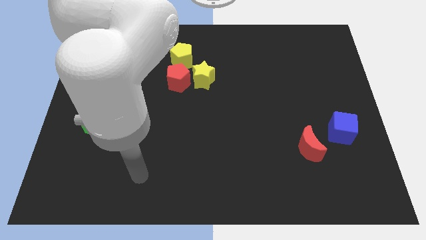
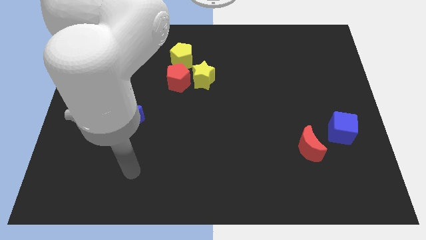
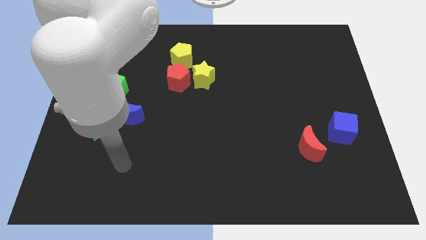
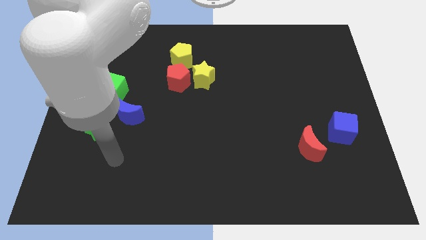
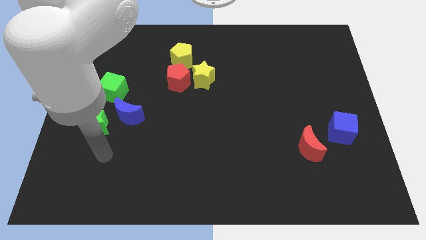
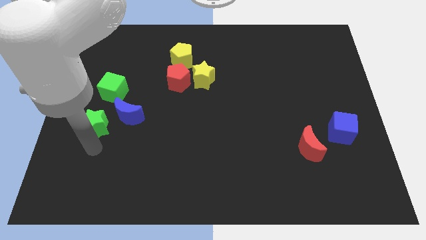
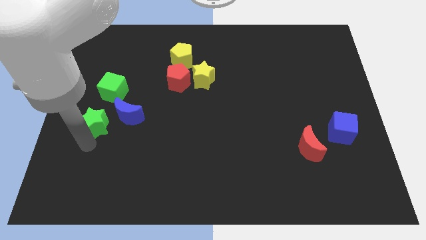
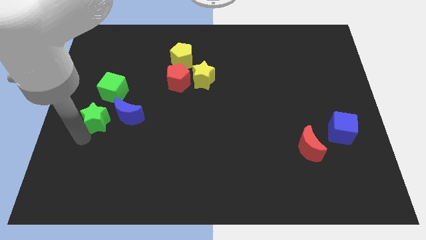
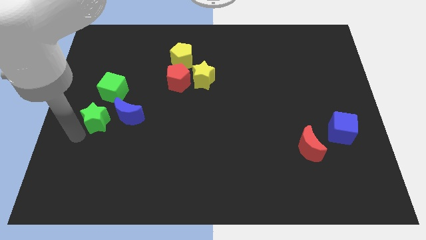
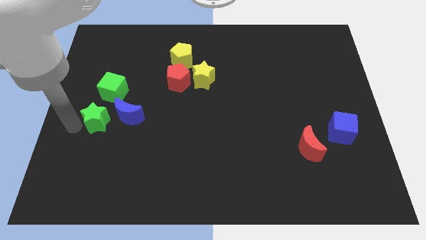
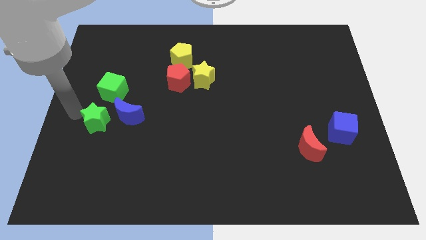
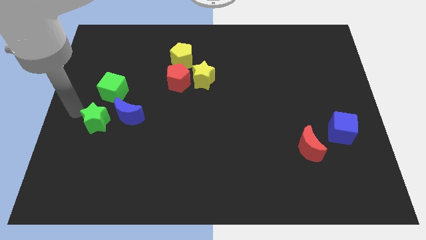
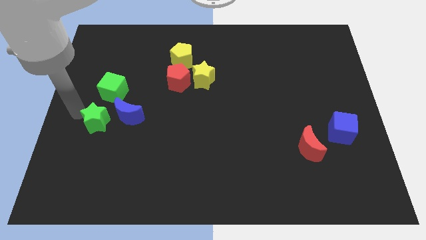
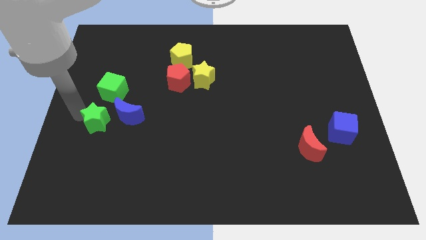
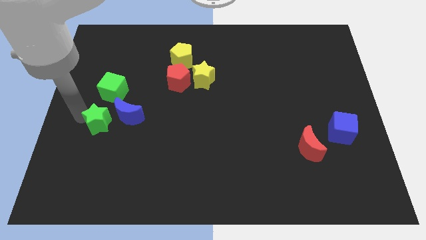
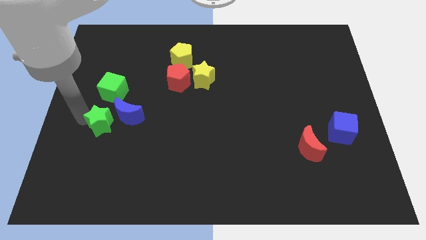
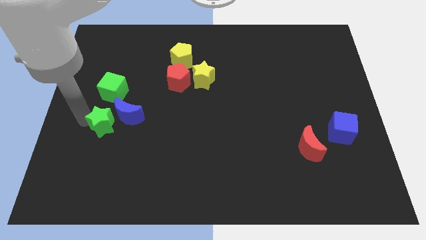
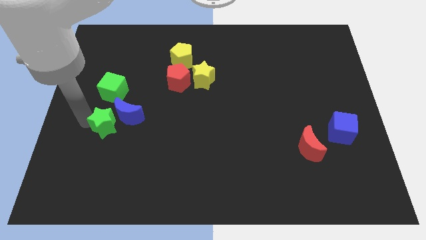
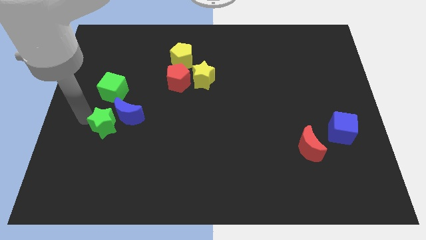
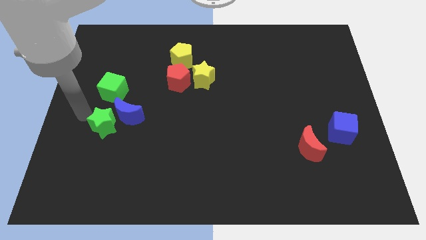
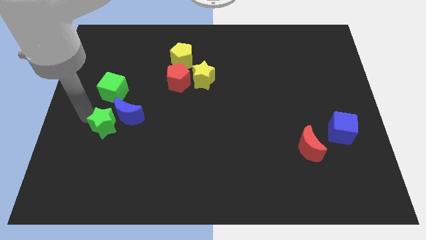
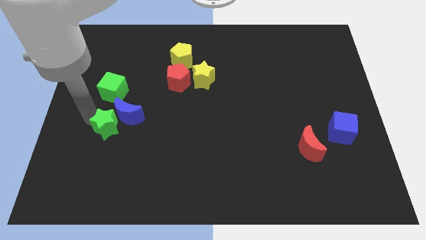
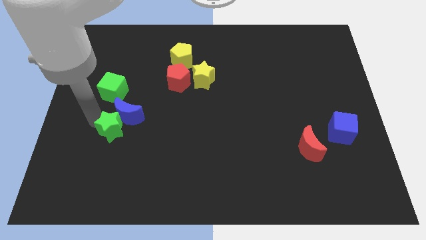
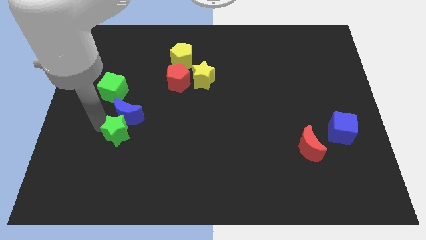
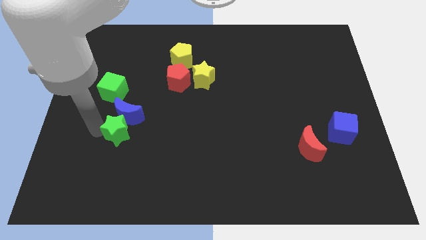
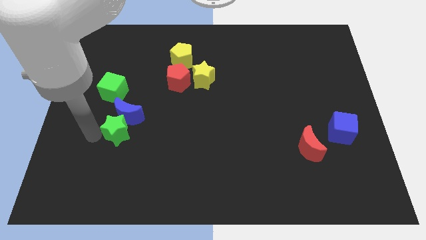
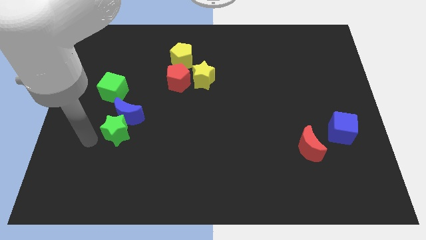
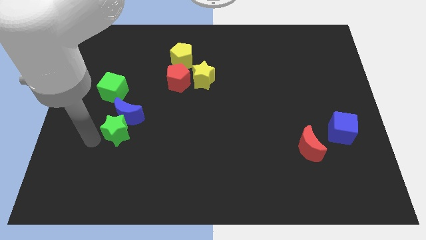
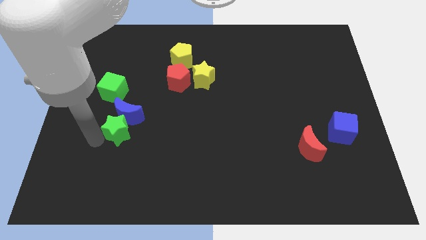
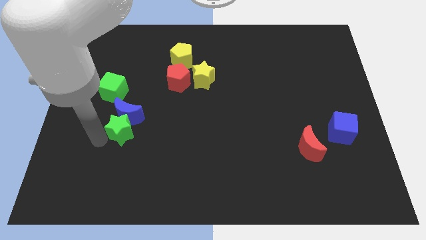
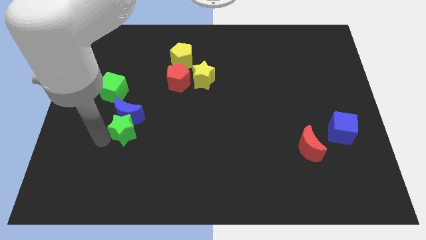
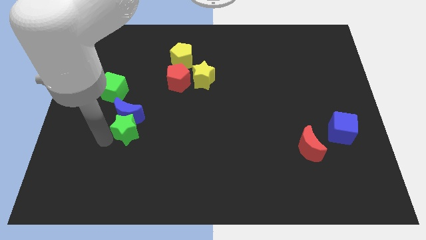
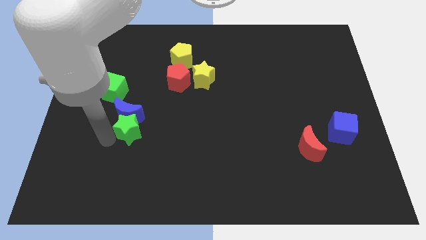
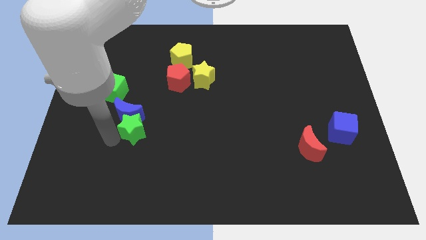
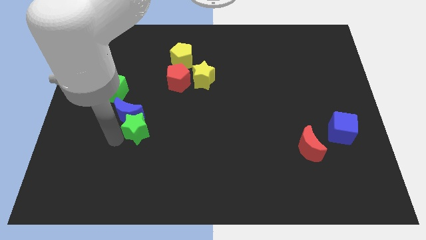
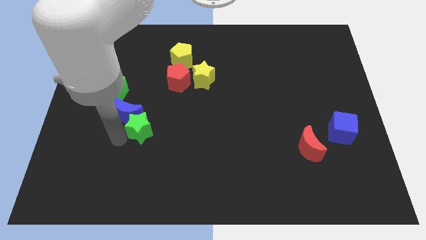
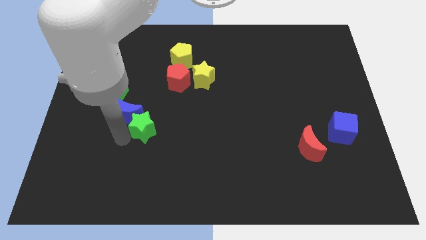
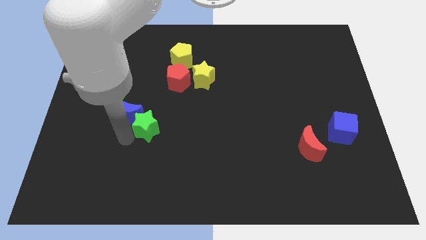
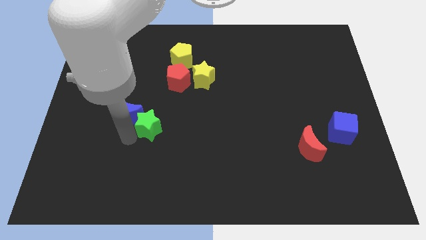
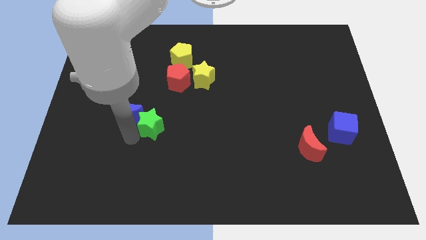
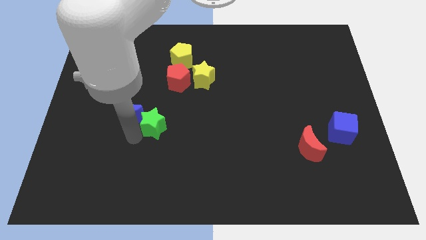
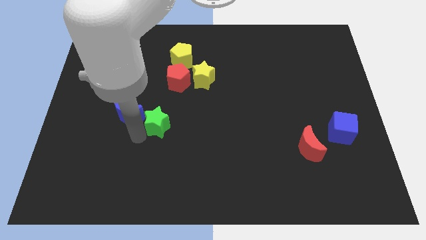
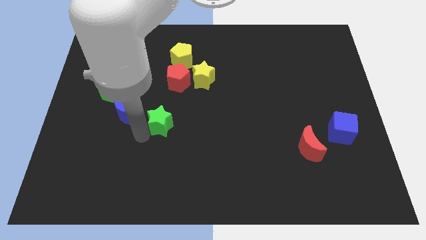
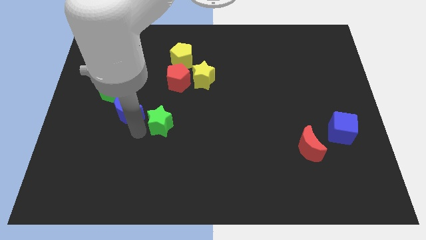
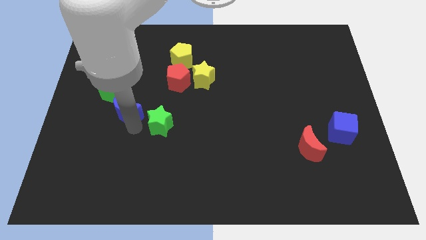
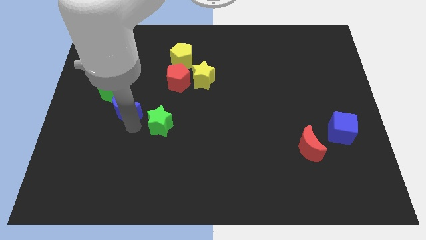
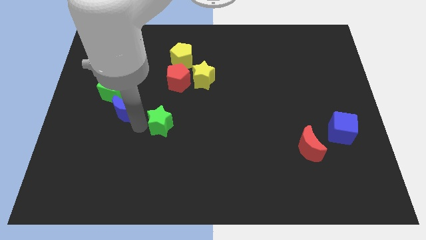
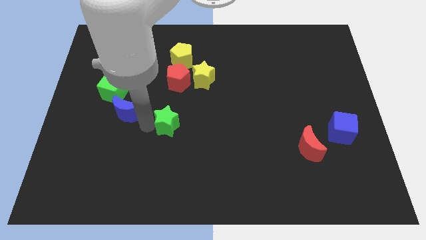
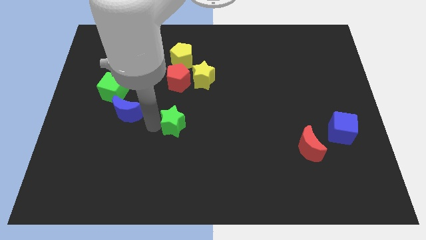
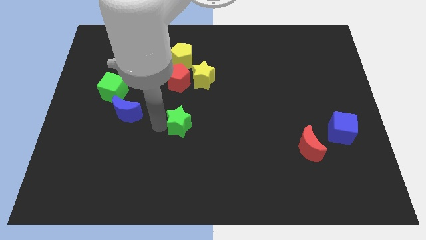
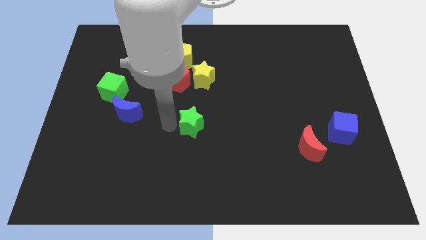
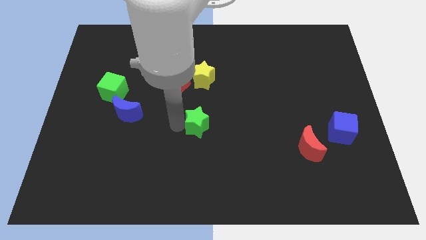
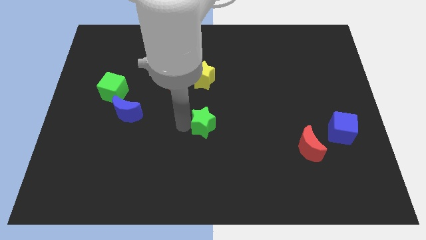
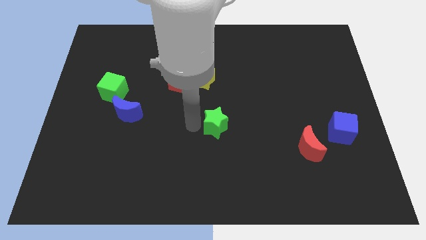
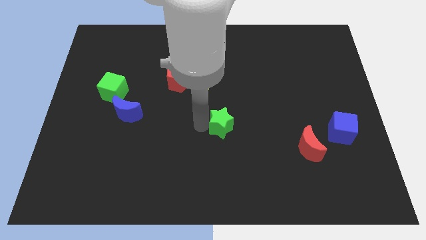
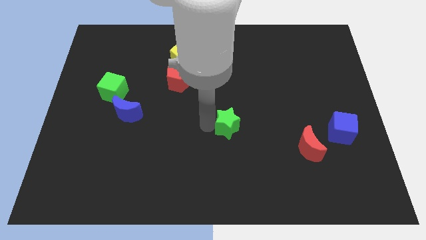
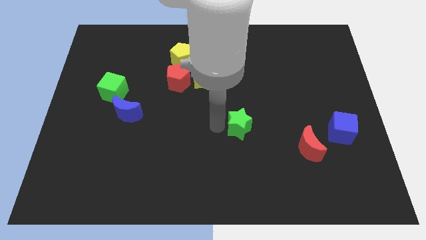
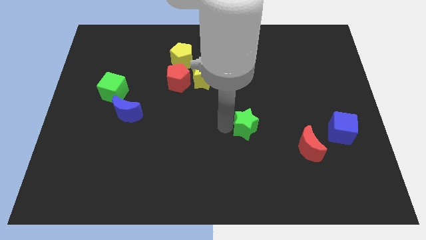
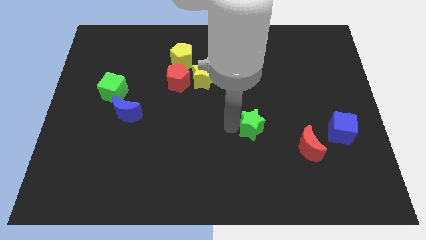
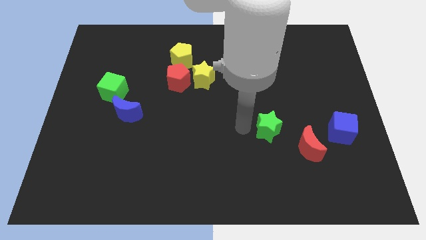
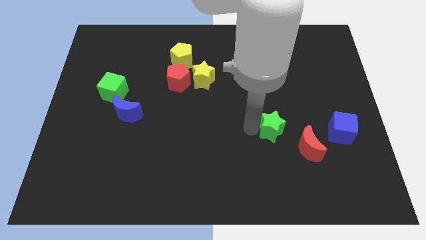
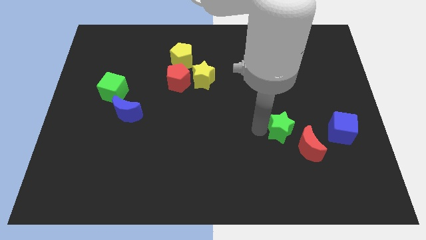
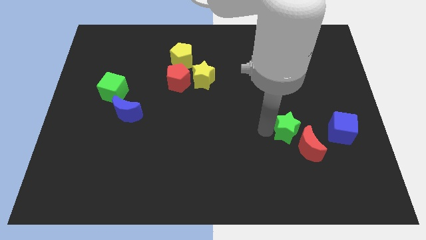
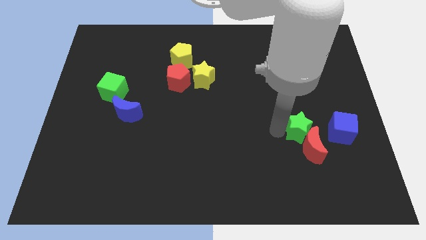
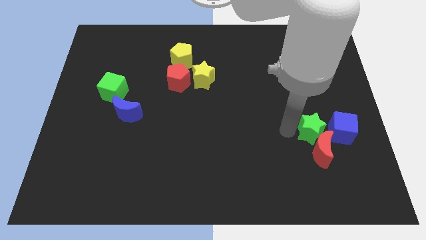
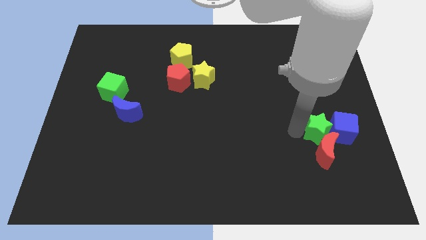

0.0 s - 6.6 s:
push the green star towards the blue cube

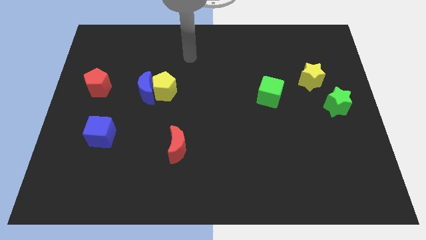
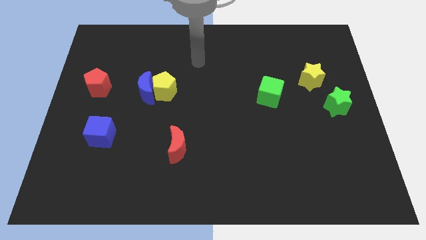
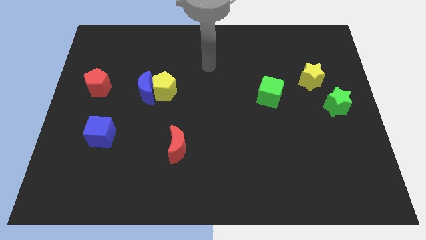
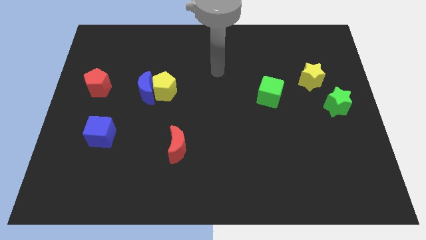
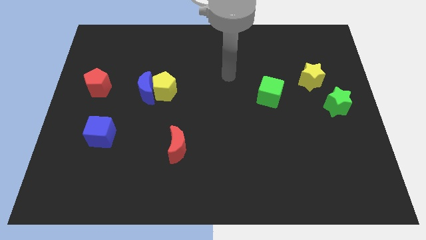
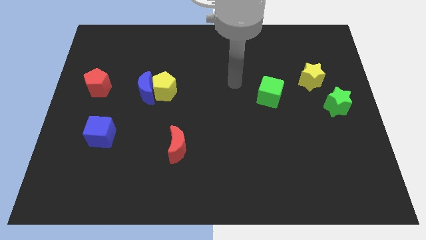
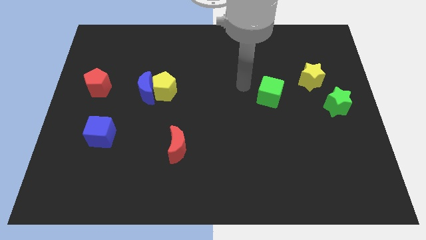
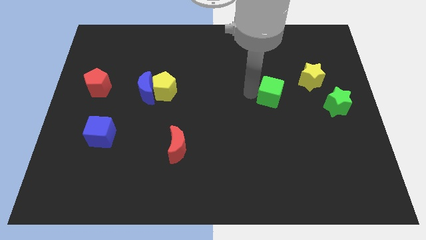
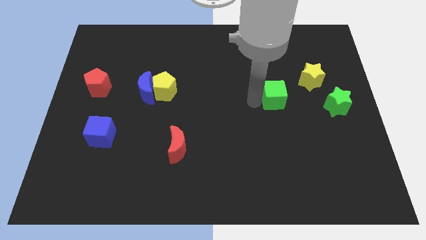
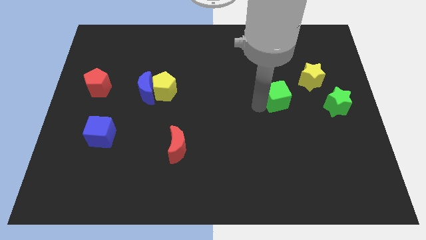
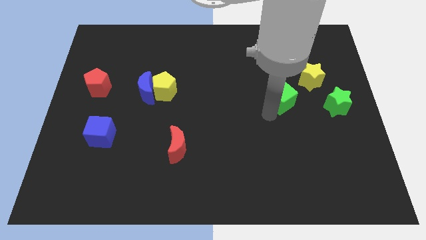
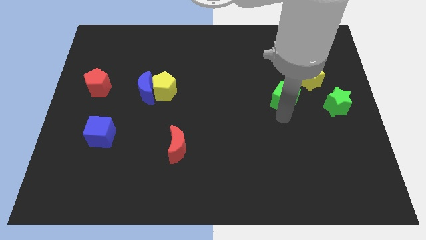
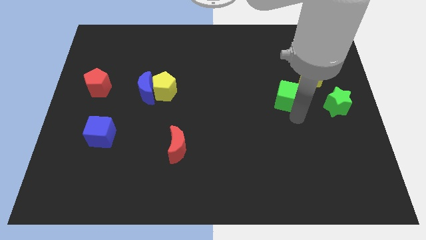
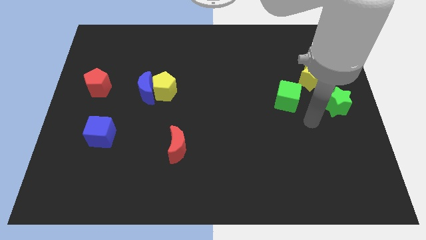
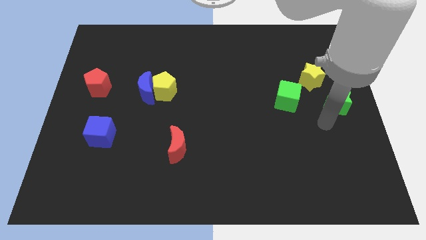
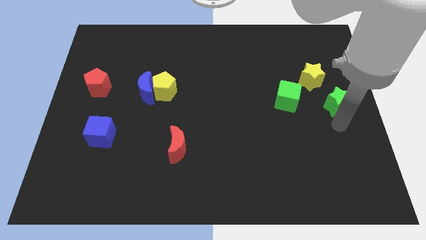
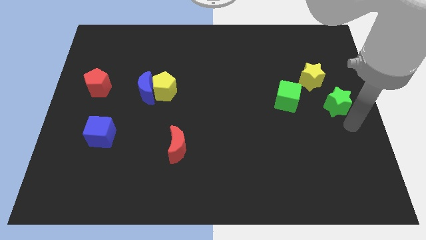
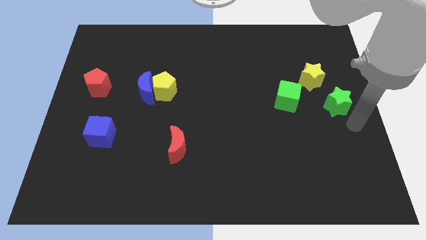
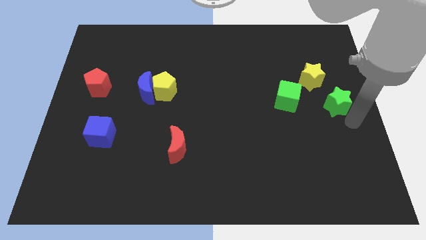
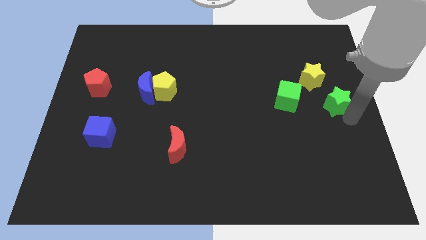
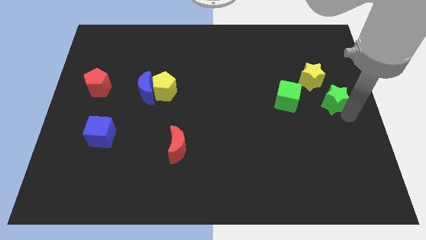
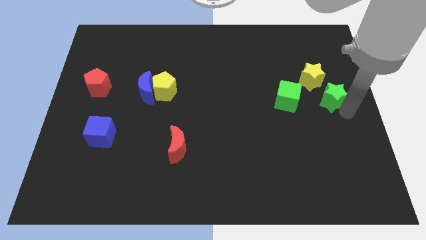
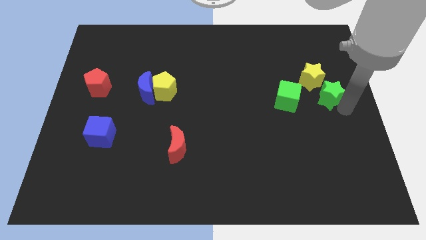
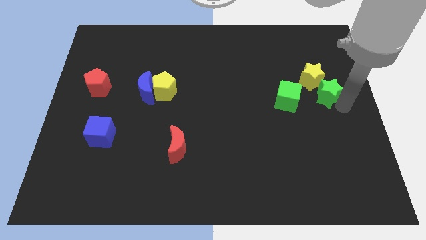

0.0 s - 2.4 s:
slide the green star to the yellow star
